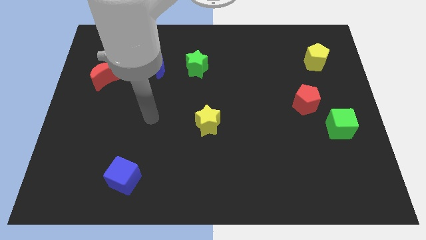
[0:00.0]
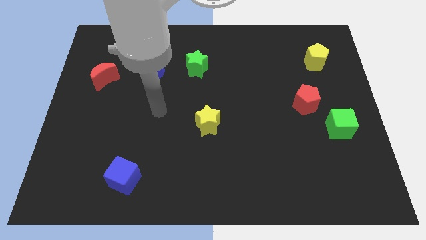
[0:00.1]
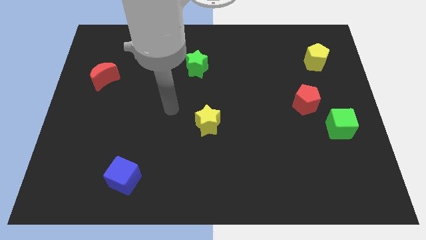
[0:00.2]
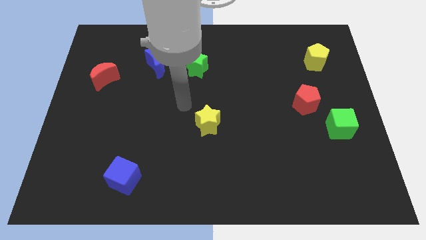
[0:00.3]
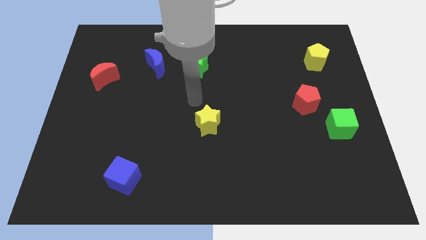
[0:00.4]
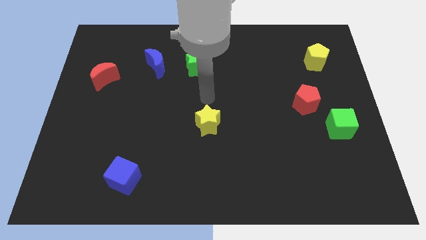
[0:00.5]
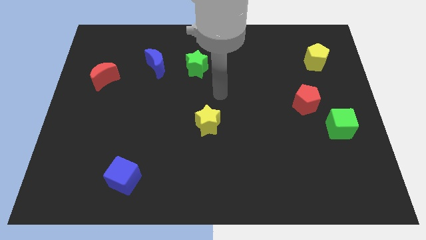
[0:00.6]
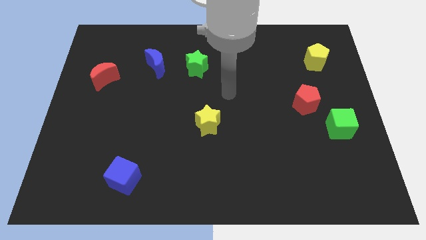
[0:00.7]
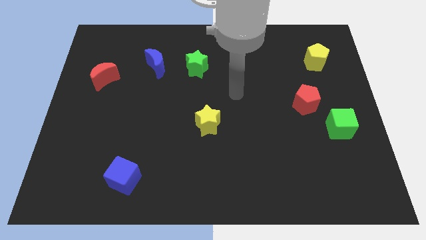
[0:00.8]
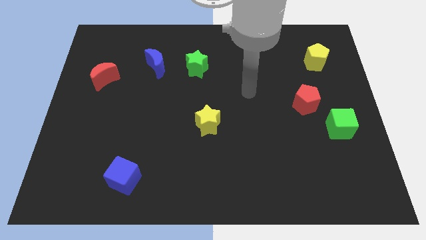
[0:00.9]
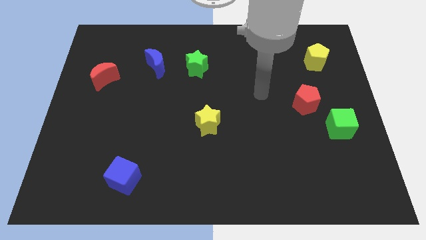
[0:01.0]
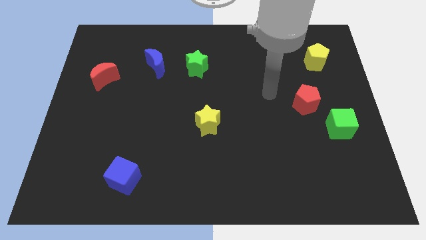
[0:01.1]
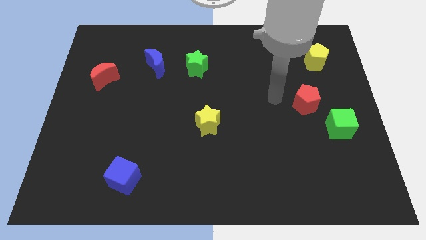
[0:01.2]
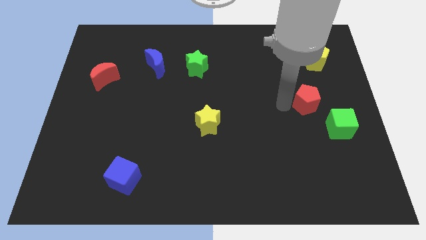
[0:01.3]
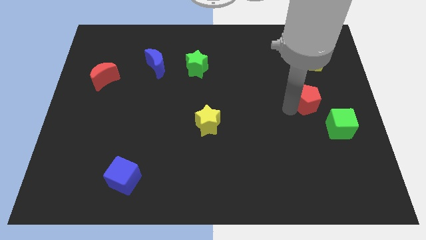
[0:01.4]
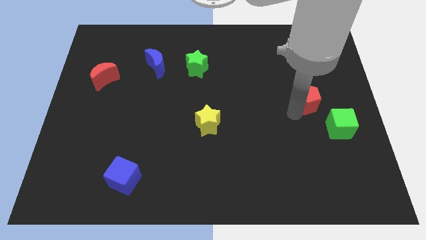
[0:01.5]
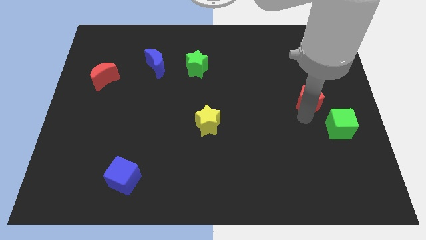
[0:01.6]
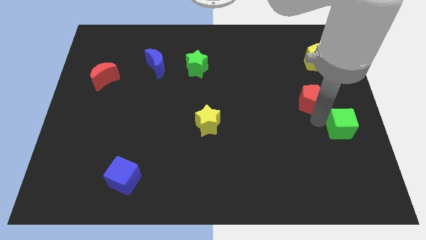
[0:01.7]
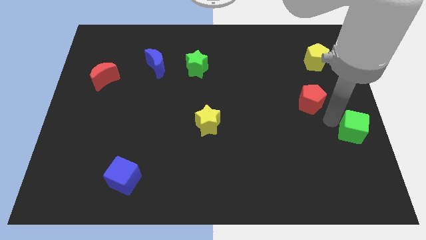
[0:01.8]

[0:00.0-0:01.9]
move the red pentagon away from the green cube

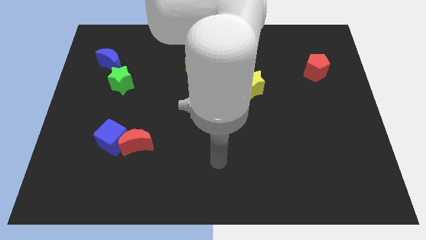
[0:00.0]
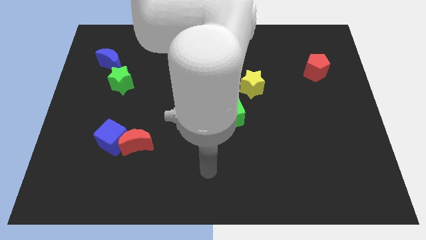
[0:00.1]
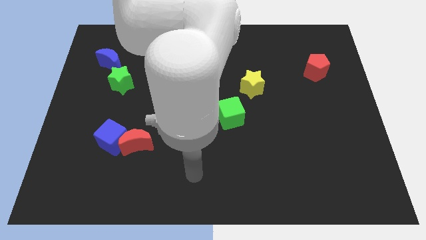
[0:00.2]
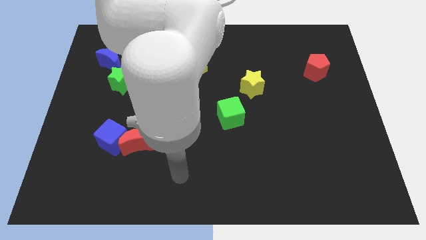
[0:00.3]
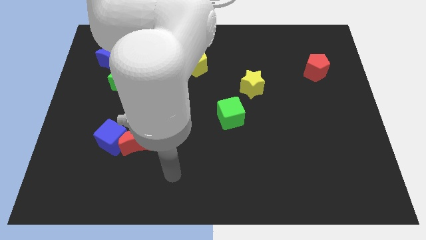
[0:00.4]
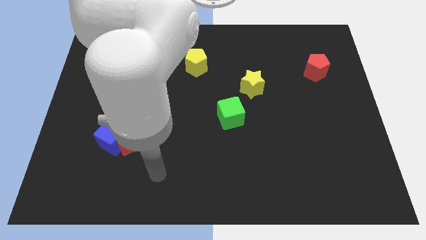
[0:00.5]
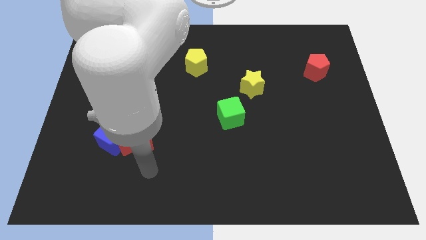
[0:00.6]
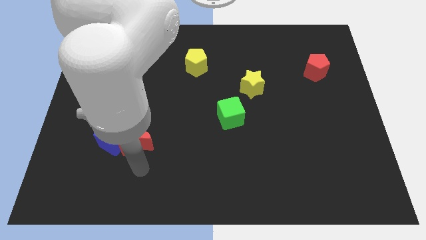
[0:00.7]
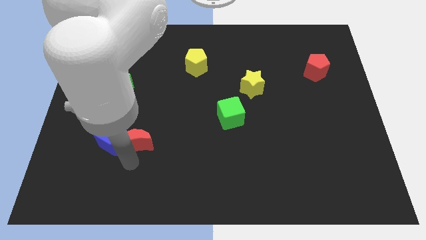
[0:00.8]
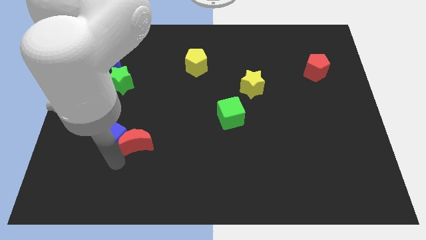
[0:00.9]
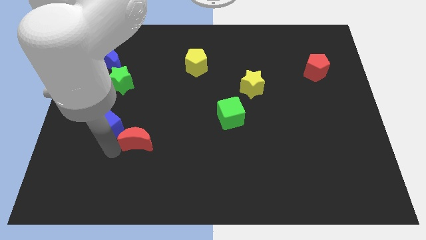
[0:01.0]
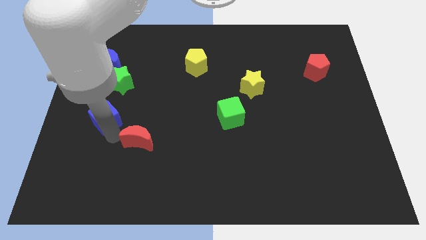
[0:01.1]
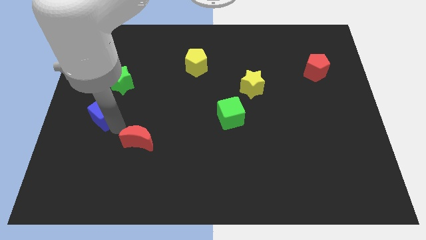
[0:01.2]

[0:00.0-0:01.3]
separate the red moon from the blue cube

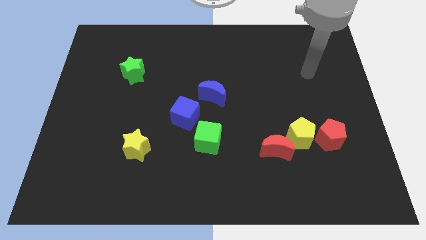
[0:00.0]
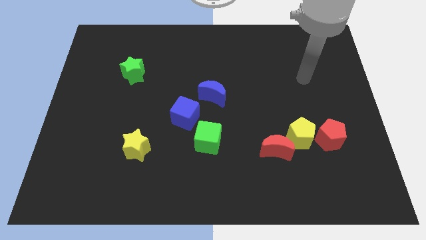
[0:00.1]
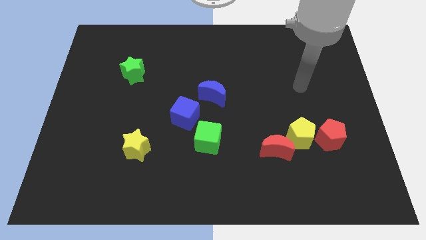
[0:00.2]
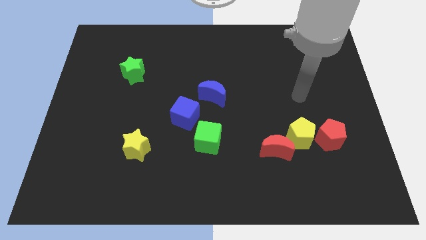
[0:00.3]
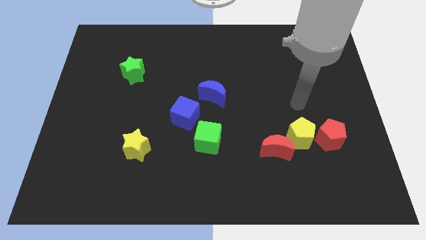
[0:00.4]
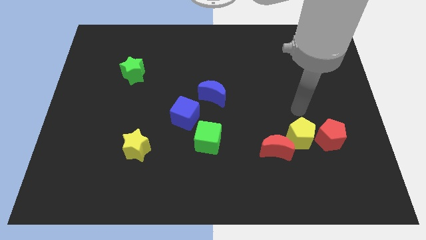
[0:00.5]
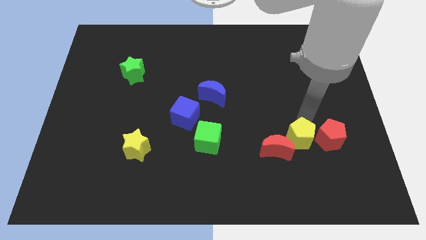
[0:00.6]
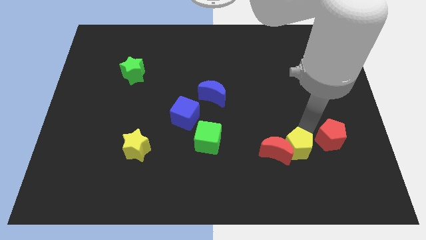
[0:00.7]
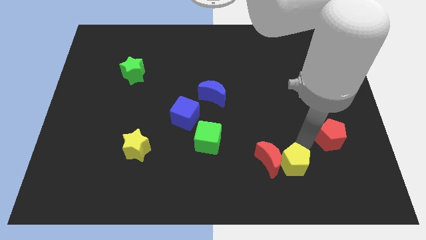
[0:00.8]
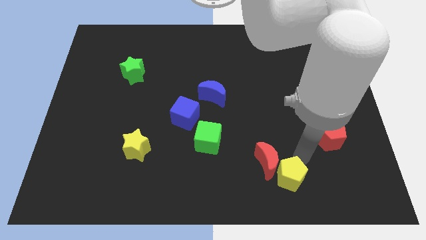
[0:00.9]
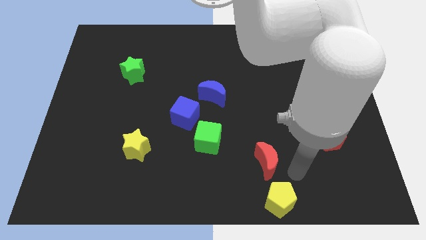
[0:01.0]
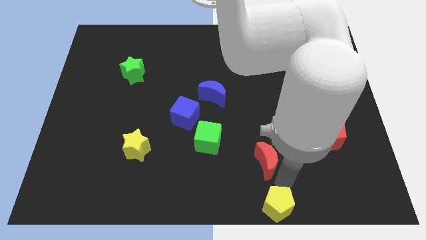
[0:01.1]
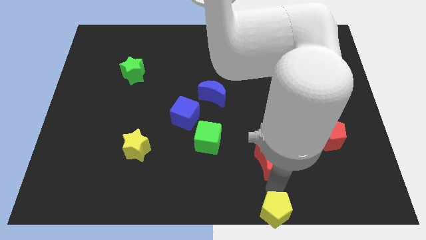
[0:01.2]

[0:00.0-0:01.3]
pull the red moon apart from the yellow pentagon

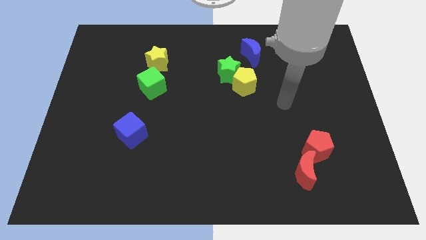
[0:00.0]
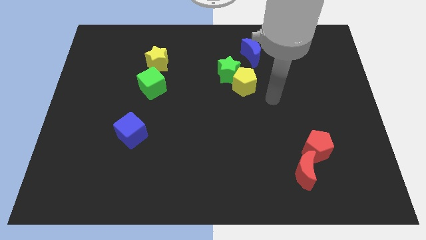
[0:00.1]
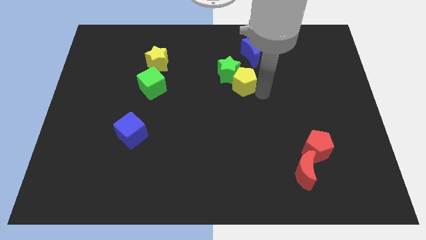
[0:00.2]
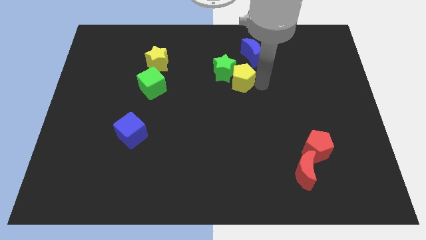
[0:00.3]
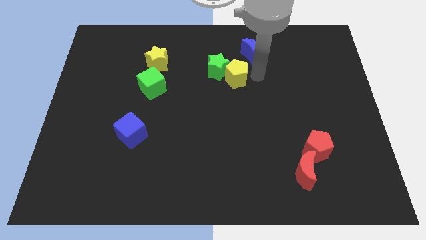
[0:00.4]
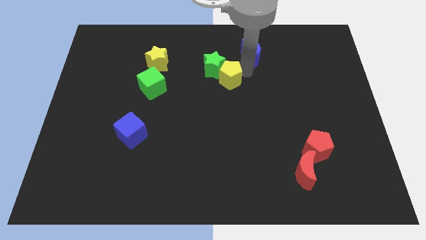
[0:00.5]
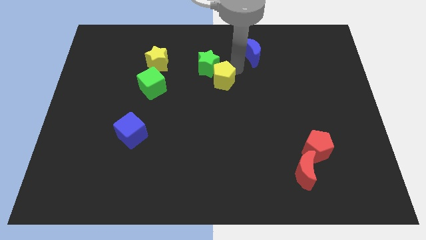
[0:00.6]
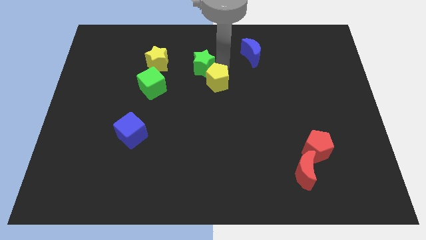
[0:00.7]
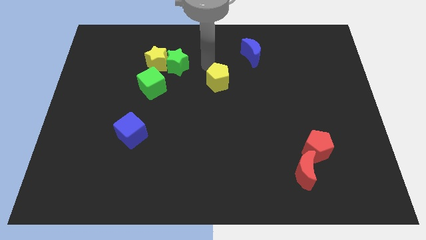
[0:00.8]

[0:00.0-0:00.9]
move the yellow pentagon away from the green star

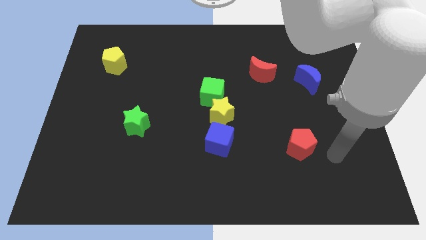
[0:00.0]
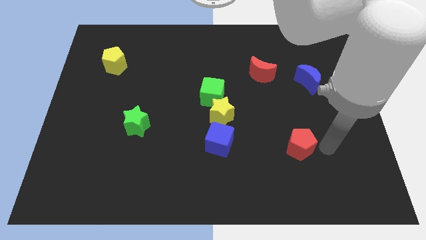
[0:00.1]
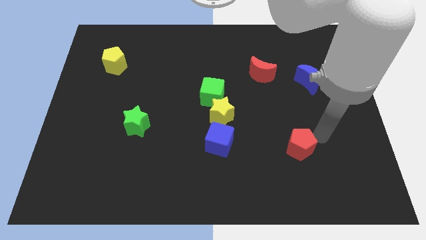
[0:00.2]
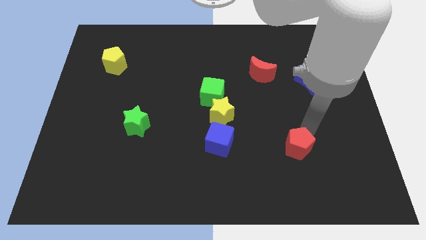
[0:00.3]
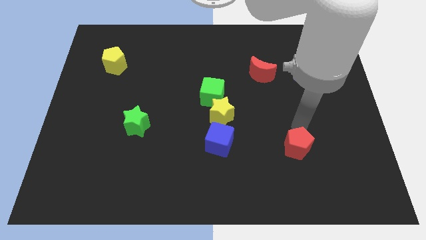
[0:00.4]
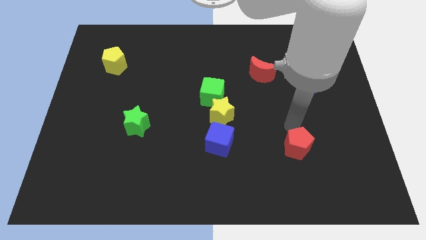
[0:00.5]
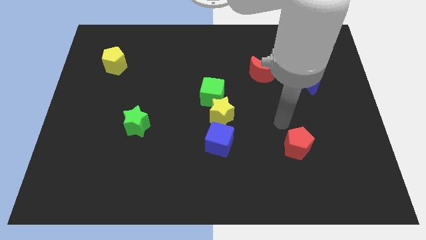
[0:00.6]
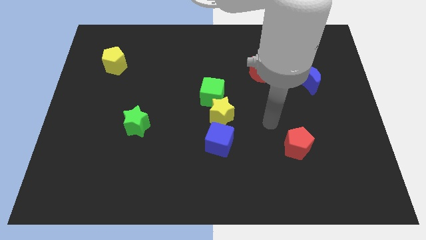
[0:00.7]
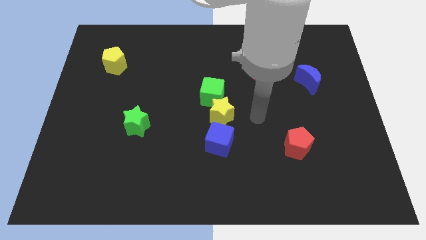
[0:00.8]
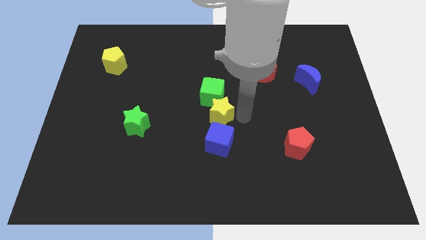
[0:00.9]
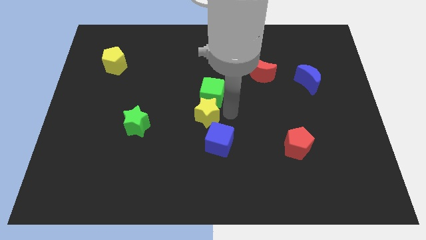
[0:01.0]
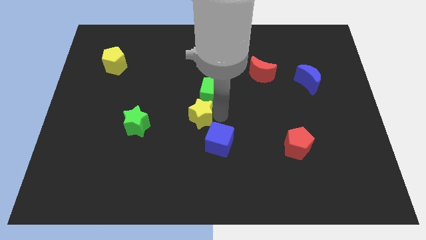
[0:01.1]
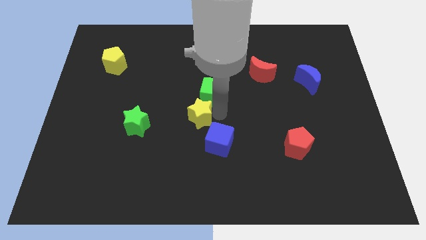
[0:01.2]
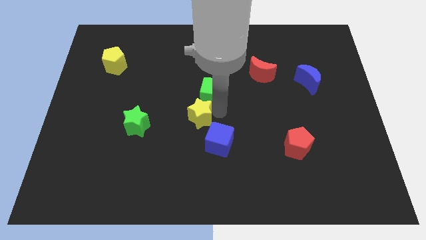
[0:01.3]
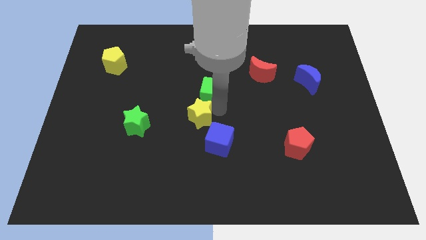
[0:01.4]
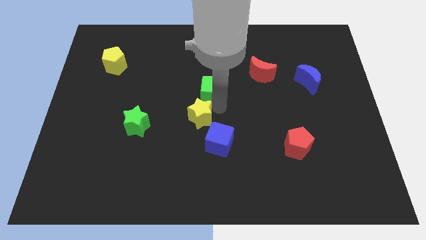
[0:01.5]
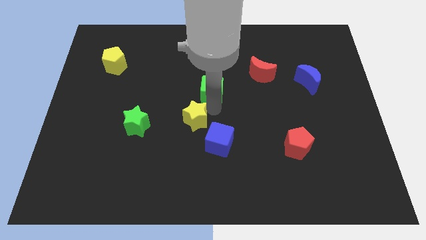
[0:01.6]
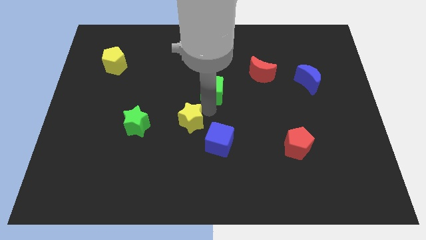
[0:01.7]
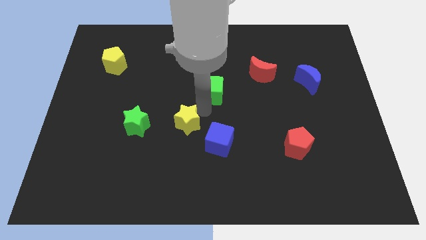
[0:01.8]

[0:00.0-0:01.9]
move the green cube away from the yellow star

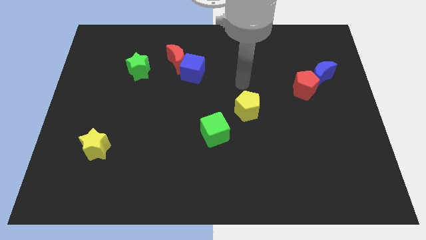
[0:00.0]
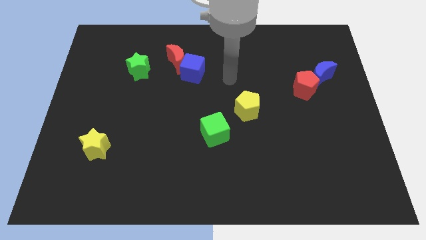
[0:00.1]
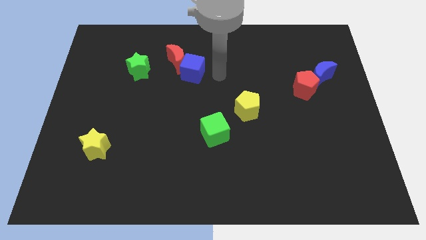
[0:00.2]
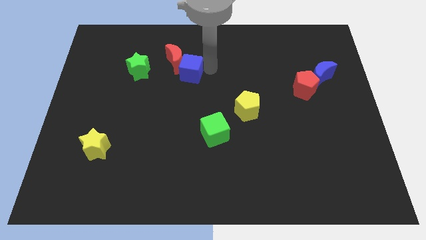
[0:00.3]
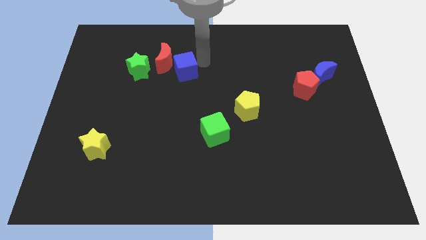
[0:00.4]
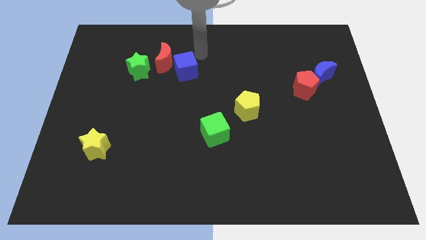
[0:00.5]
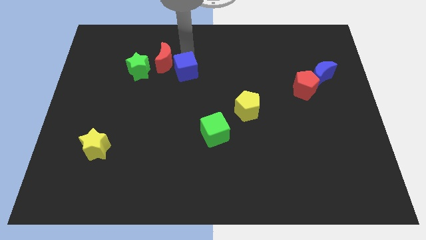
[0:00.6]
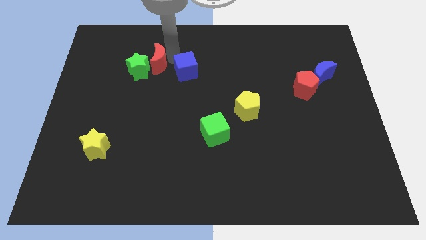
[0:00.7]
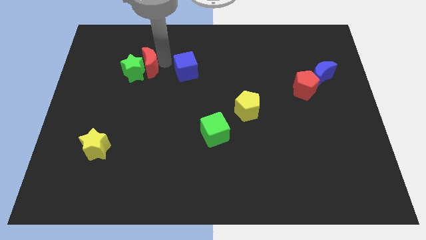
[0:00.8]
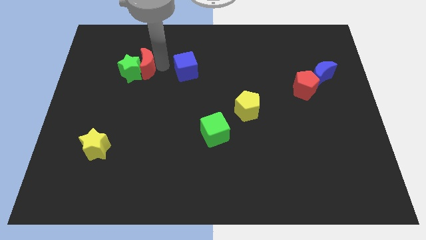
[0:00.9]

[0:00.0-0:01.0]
separate the blue cube from the red moon

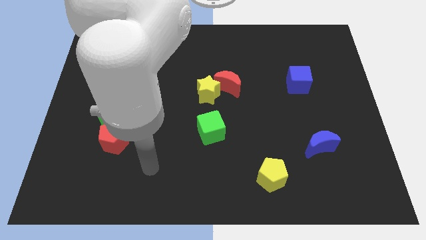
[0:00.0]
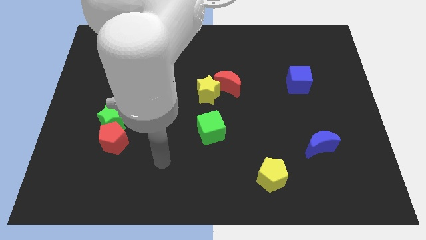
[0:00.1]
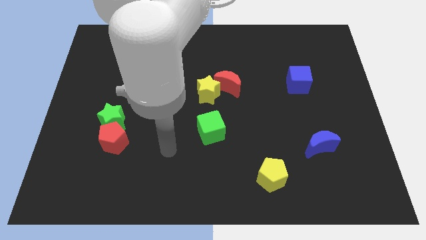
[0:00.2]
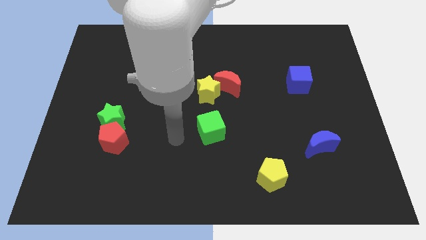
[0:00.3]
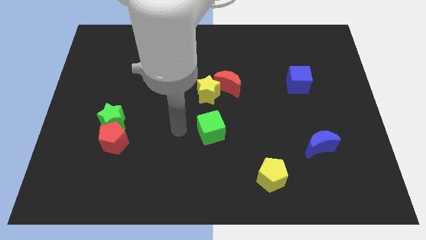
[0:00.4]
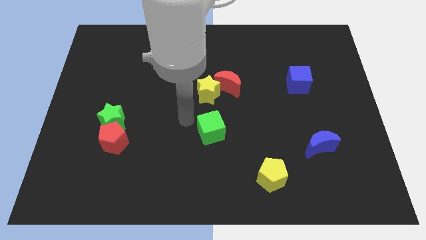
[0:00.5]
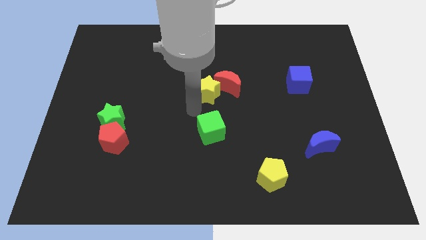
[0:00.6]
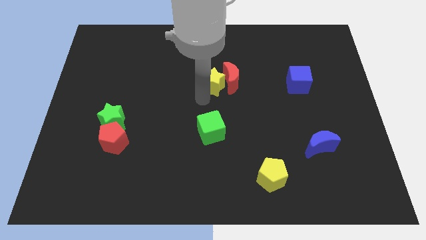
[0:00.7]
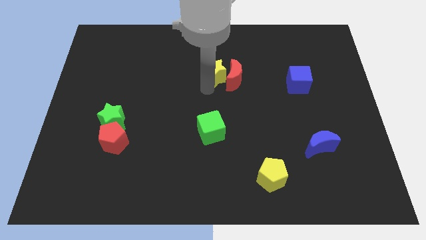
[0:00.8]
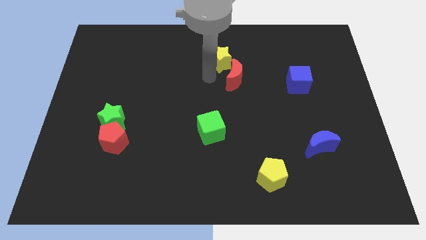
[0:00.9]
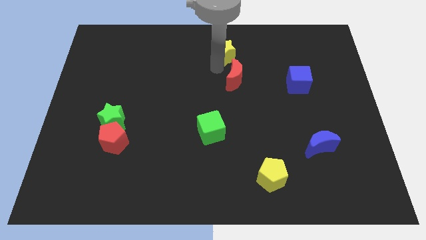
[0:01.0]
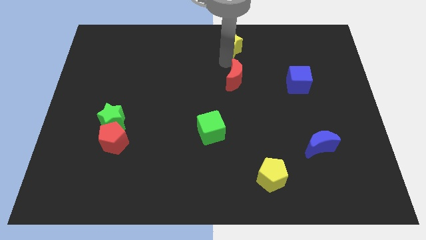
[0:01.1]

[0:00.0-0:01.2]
separate the red moon from the yellow star
